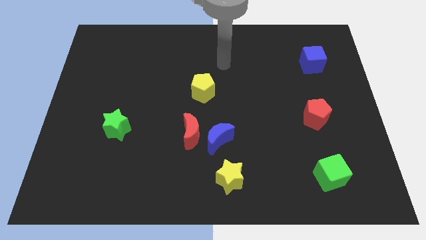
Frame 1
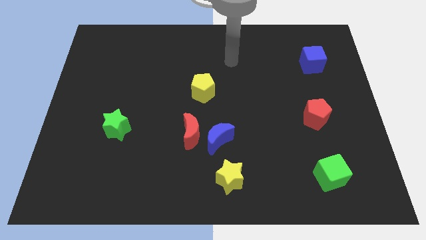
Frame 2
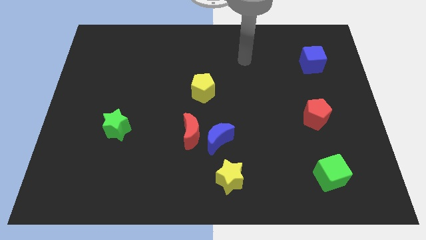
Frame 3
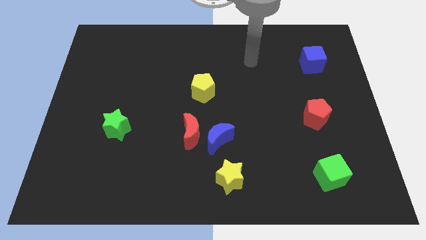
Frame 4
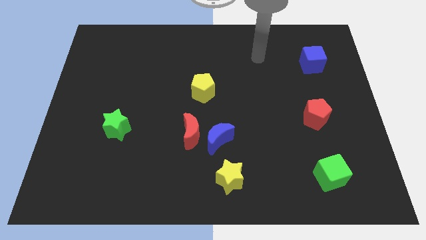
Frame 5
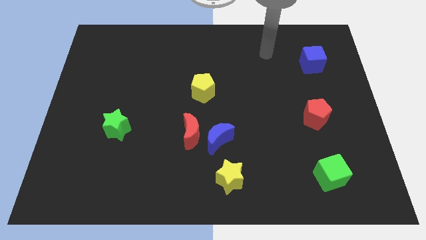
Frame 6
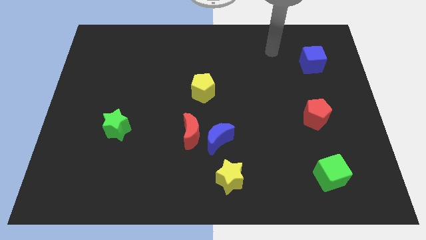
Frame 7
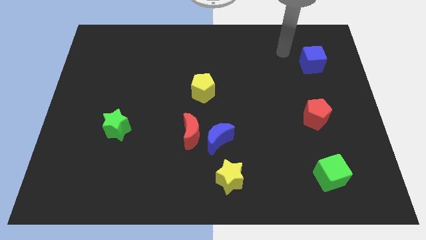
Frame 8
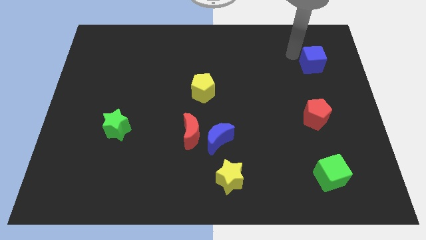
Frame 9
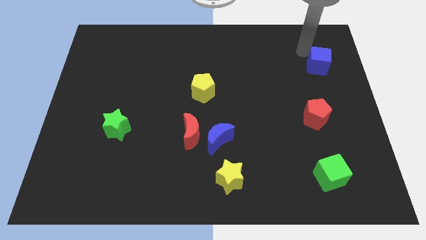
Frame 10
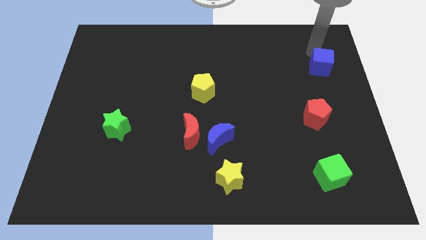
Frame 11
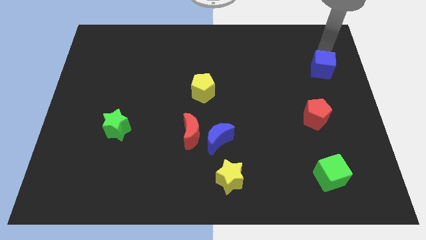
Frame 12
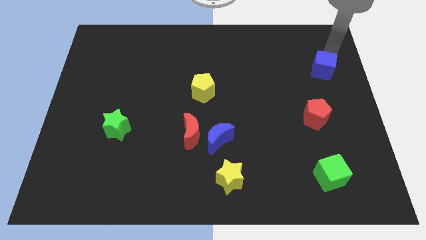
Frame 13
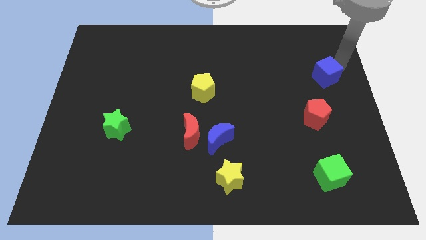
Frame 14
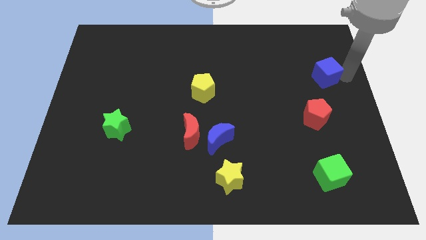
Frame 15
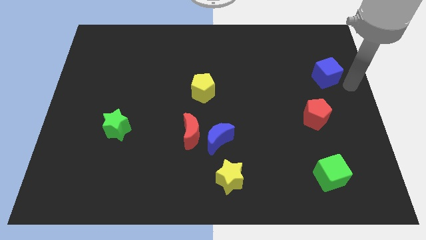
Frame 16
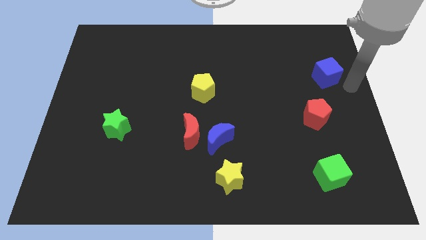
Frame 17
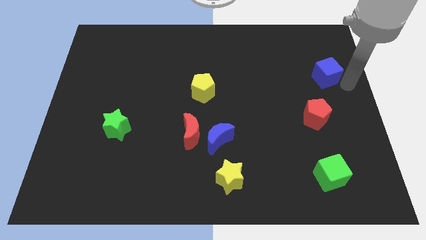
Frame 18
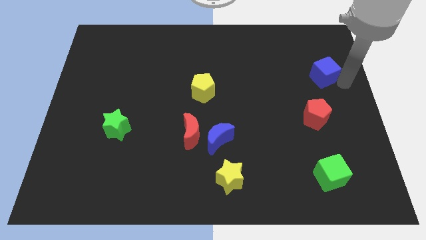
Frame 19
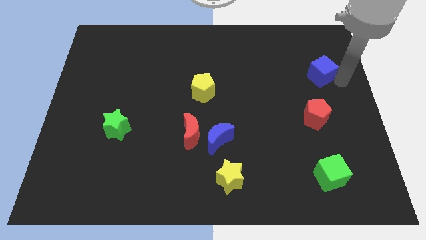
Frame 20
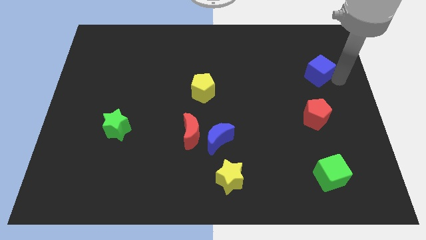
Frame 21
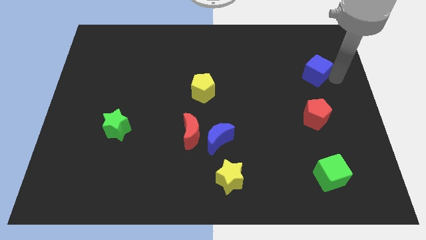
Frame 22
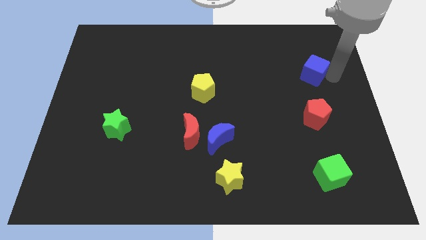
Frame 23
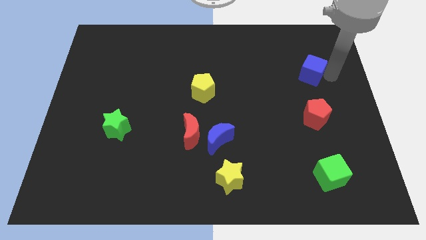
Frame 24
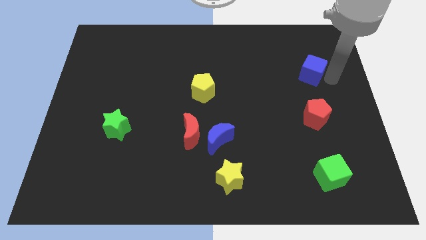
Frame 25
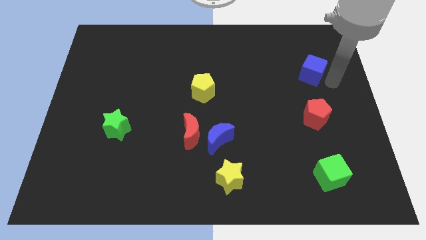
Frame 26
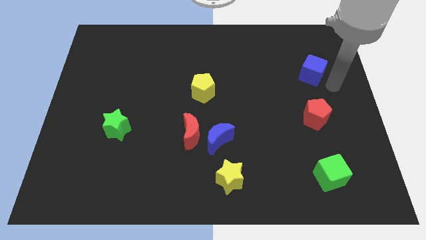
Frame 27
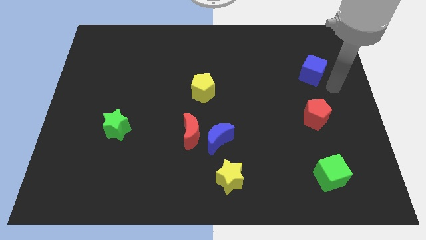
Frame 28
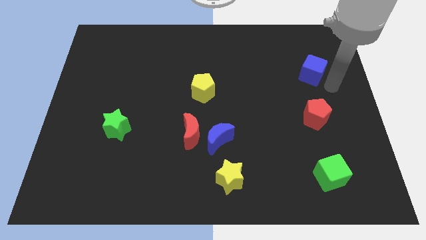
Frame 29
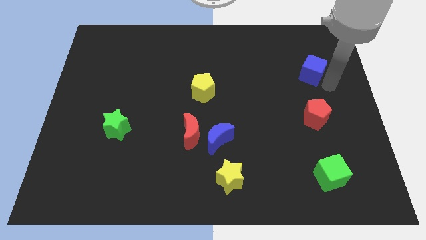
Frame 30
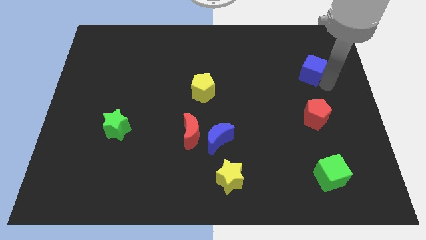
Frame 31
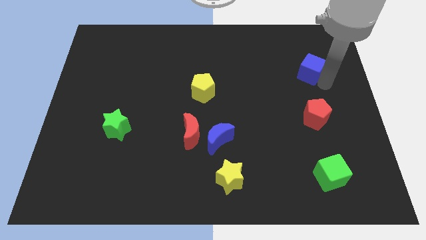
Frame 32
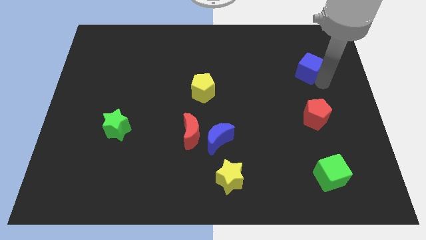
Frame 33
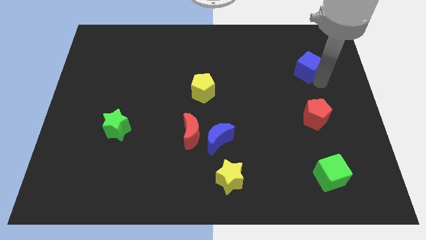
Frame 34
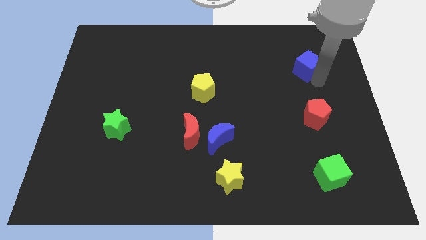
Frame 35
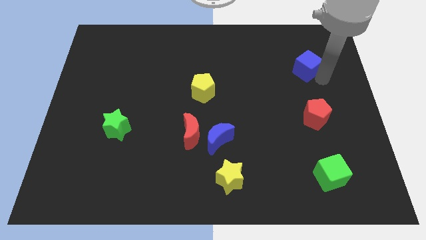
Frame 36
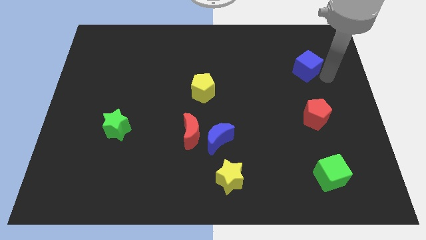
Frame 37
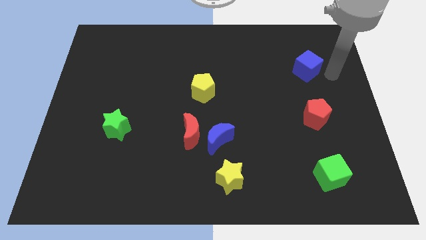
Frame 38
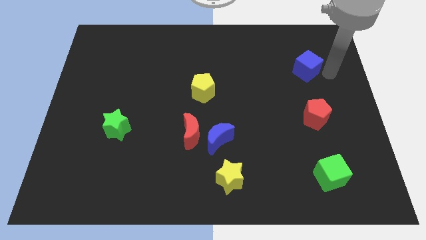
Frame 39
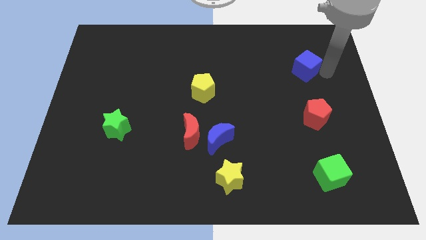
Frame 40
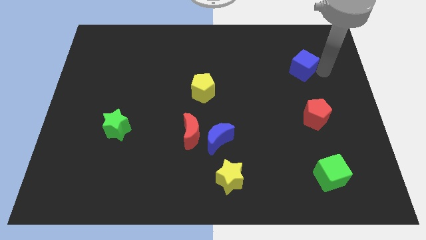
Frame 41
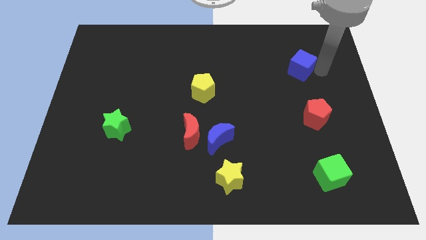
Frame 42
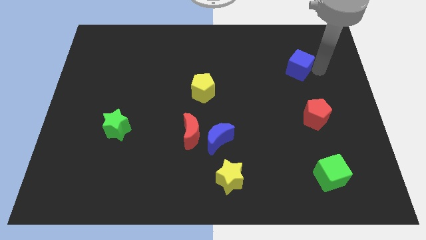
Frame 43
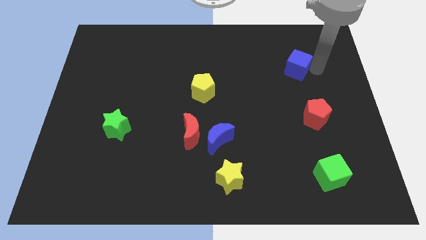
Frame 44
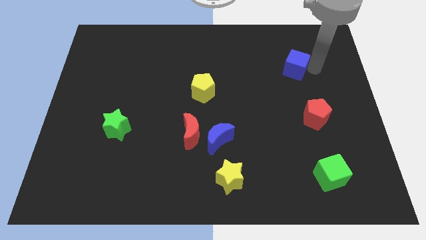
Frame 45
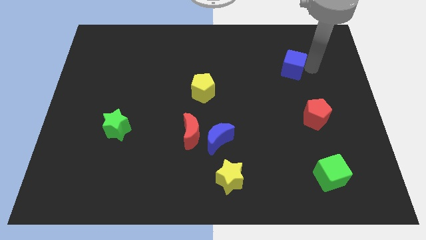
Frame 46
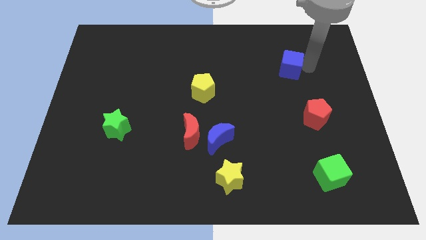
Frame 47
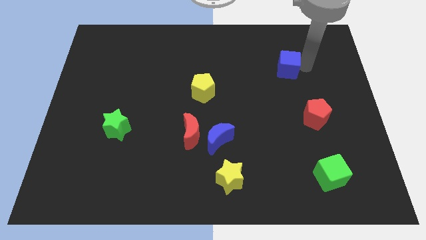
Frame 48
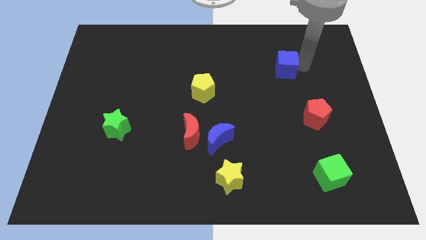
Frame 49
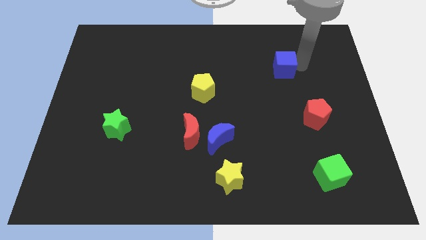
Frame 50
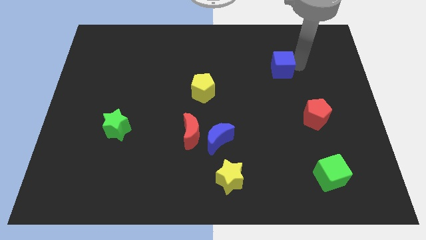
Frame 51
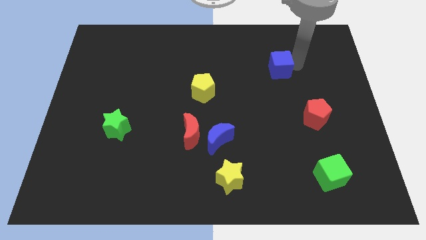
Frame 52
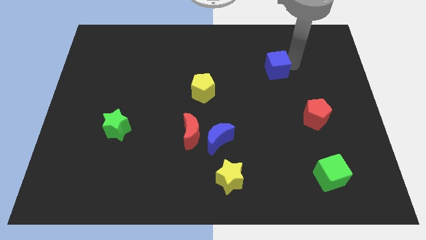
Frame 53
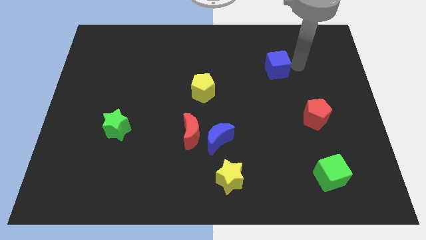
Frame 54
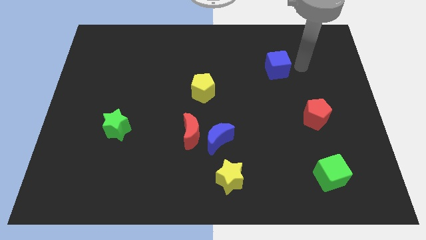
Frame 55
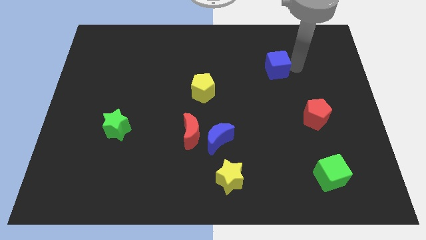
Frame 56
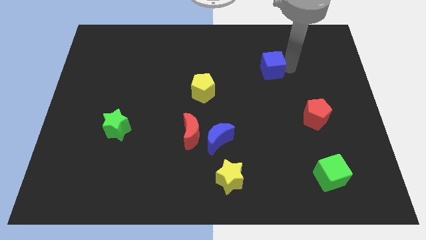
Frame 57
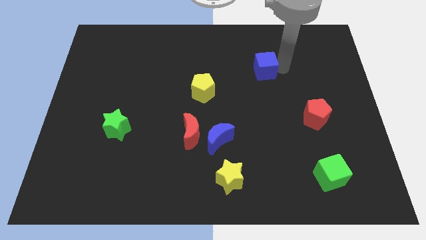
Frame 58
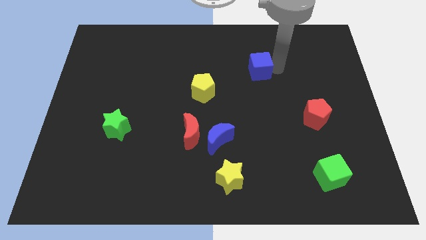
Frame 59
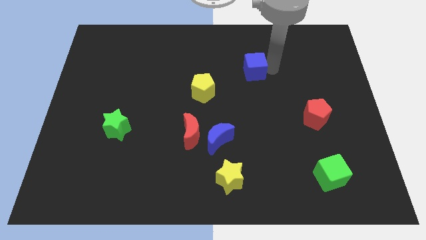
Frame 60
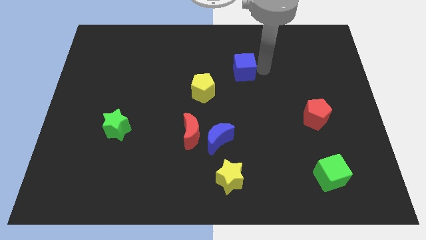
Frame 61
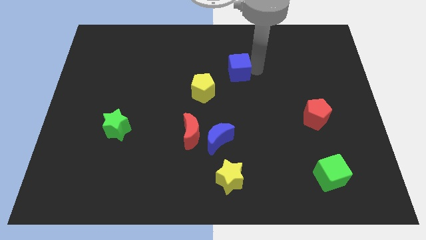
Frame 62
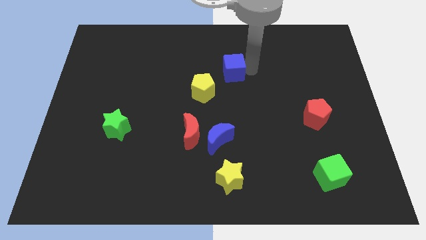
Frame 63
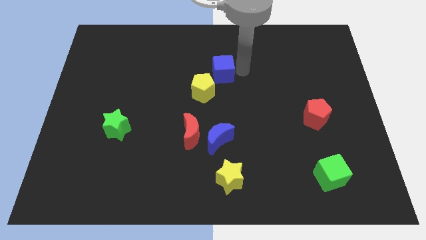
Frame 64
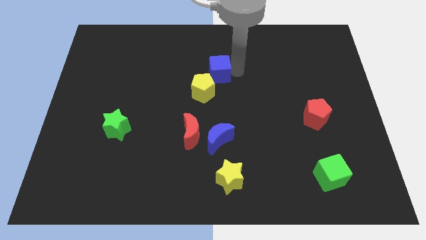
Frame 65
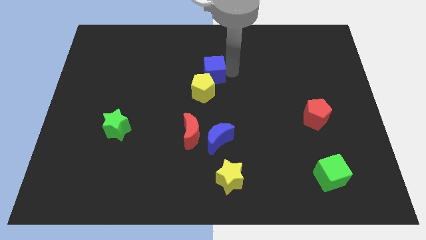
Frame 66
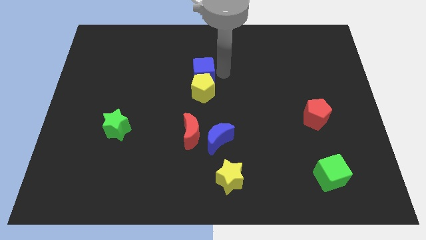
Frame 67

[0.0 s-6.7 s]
slide the blue cube to the top left side of the yellow pentagon
